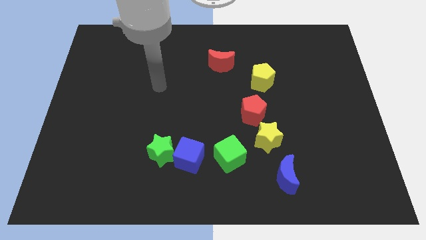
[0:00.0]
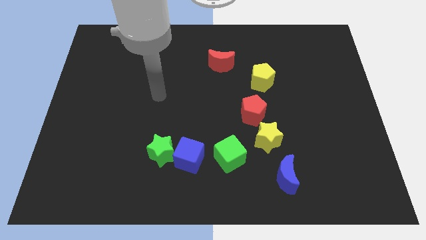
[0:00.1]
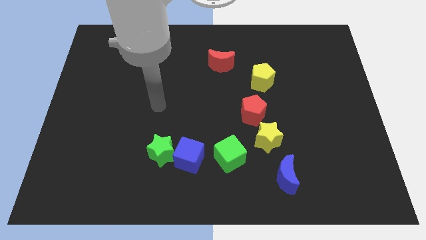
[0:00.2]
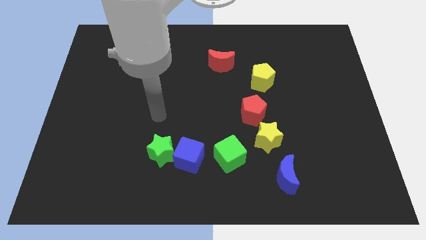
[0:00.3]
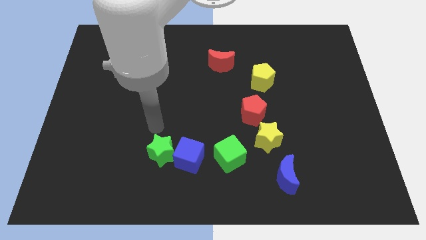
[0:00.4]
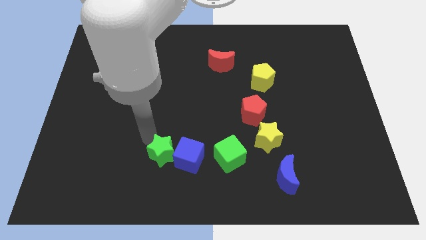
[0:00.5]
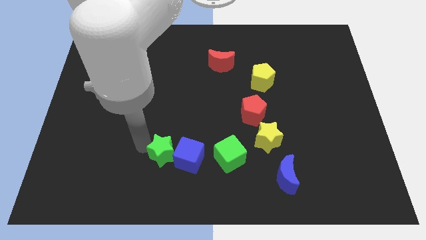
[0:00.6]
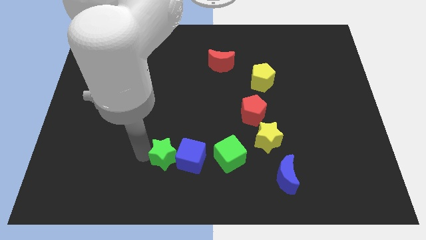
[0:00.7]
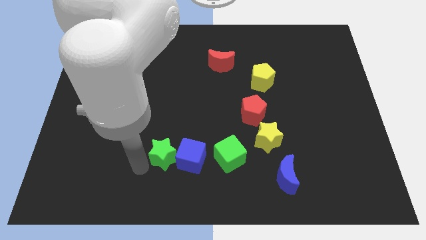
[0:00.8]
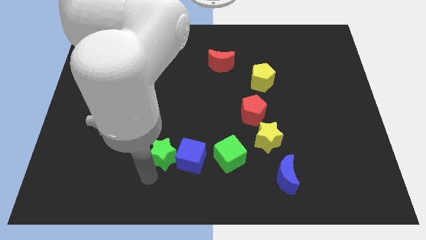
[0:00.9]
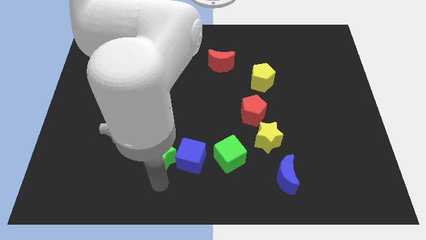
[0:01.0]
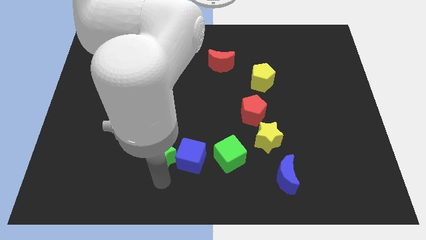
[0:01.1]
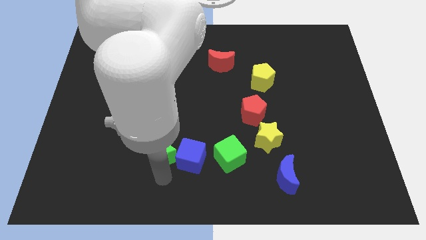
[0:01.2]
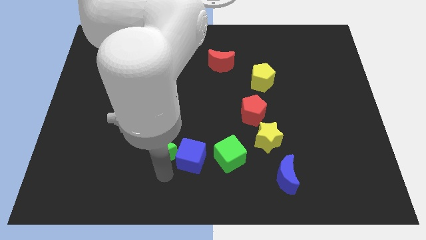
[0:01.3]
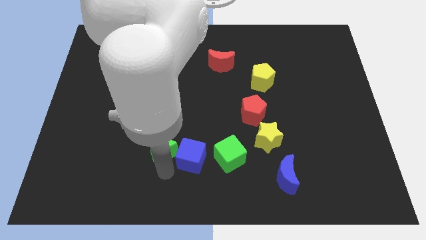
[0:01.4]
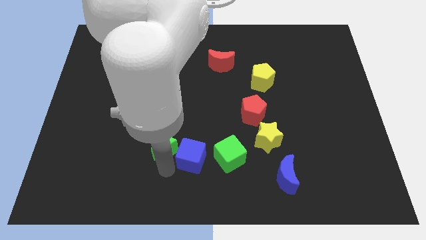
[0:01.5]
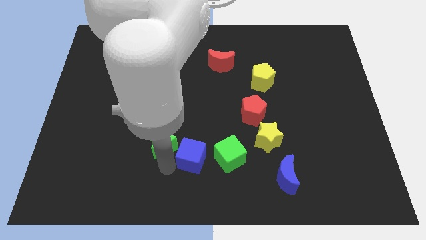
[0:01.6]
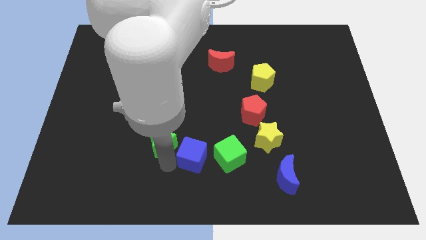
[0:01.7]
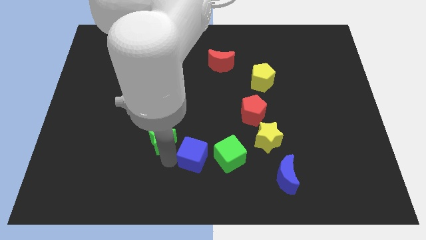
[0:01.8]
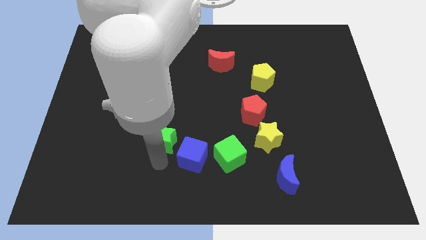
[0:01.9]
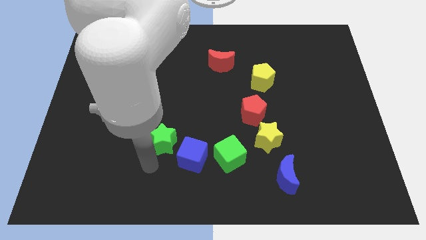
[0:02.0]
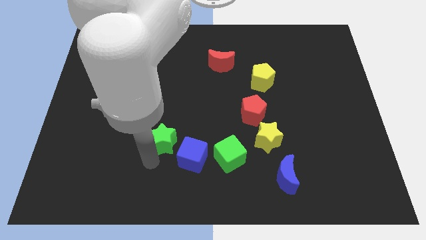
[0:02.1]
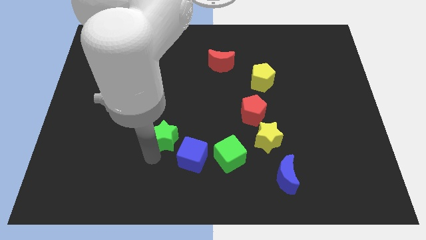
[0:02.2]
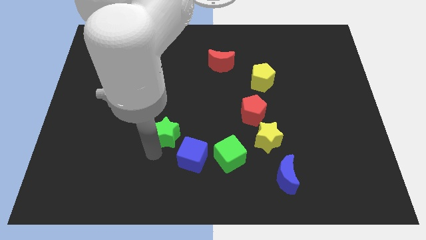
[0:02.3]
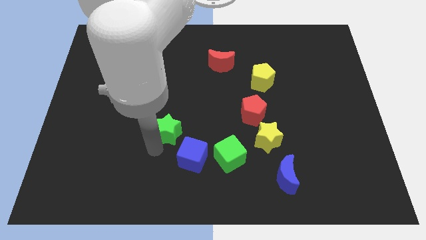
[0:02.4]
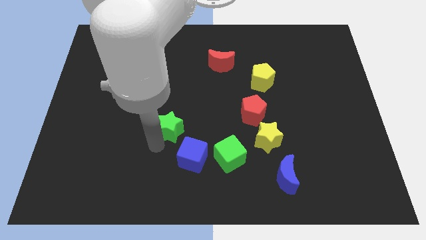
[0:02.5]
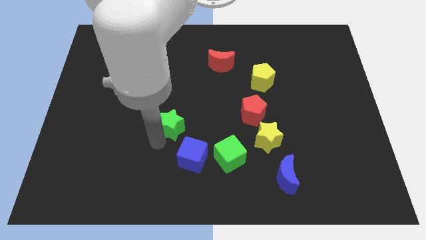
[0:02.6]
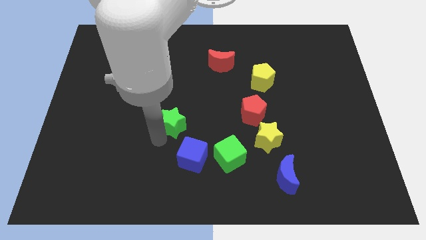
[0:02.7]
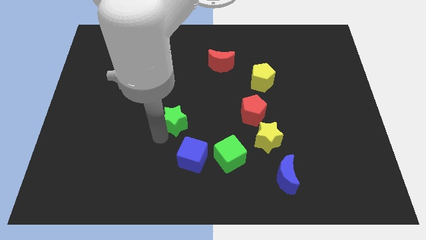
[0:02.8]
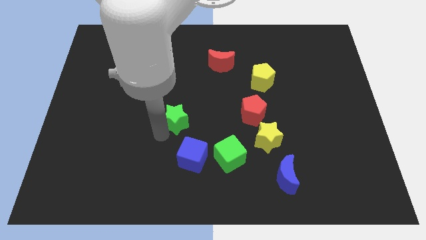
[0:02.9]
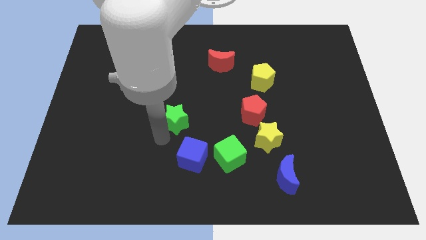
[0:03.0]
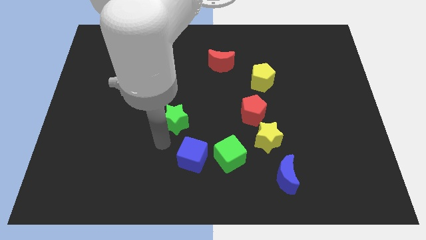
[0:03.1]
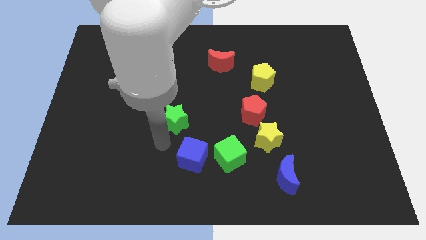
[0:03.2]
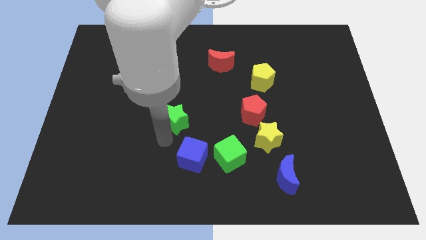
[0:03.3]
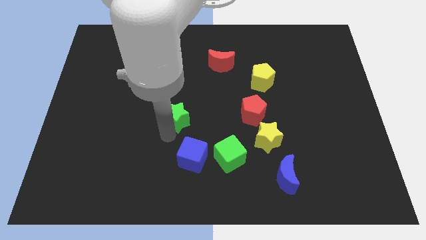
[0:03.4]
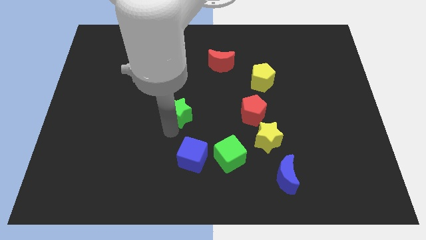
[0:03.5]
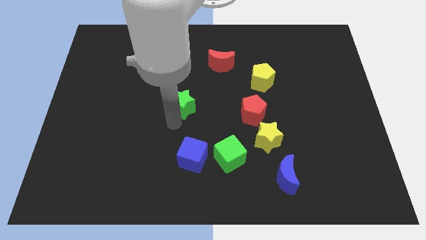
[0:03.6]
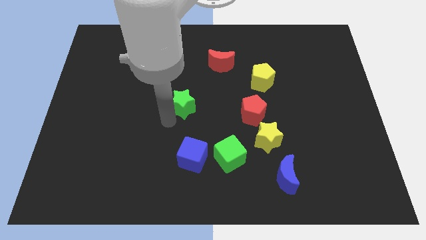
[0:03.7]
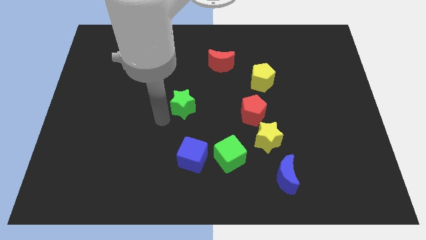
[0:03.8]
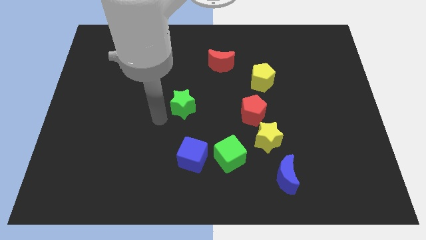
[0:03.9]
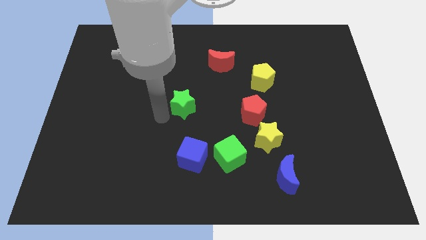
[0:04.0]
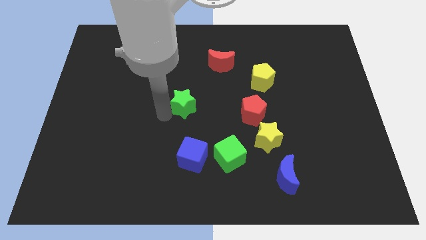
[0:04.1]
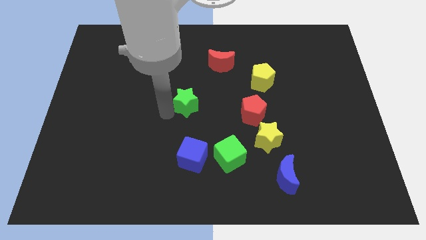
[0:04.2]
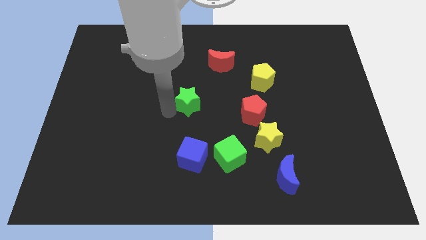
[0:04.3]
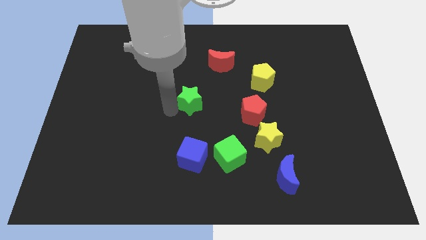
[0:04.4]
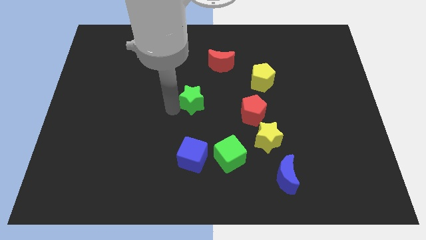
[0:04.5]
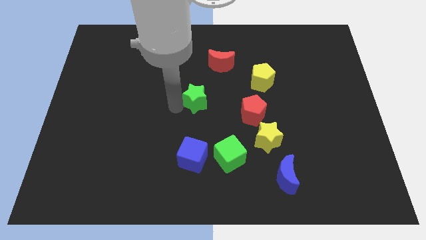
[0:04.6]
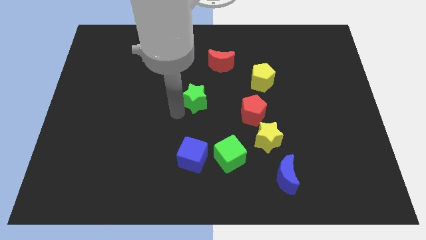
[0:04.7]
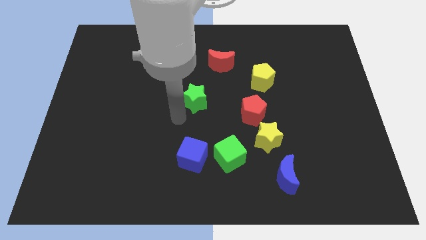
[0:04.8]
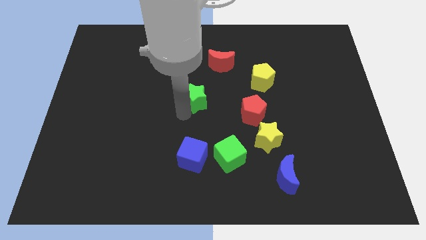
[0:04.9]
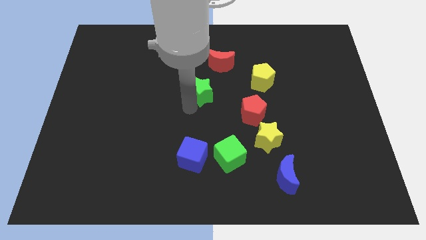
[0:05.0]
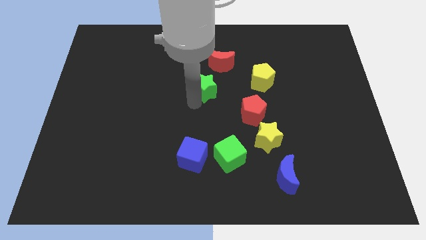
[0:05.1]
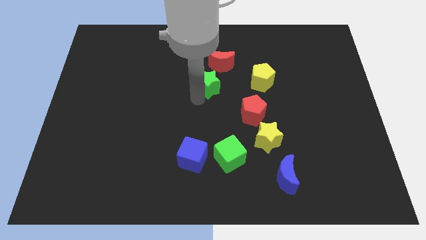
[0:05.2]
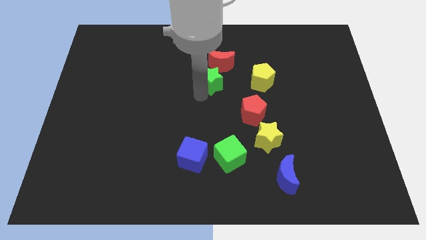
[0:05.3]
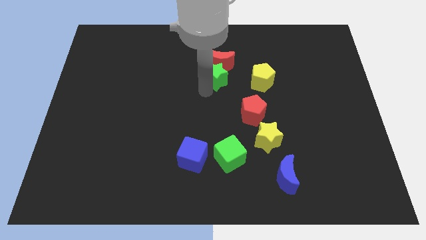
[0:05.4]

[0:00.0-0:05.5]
move the green star towards the red moon

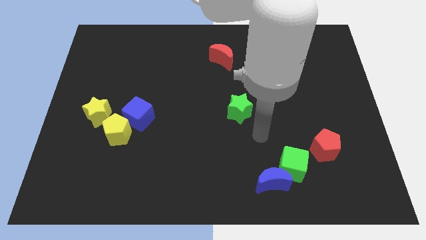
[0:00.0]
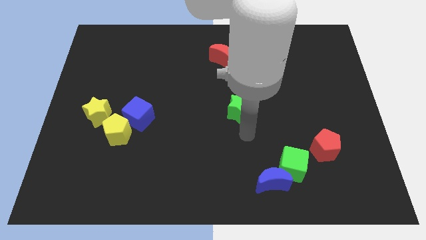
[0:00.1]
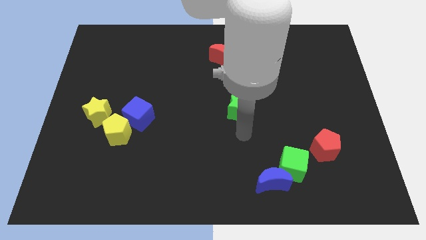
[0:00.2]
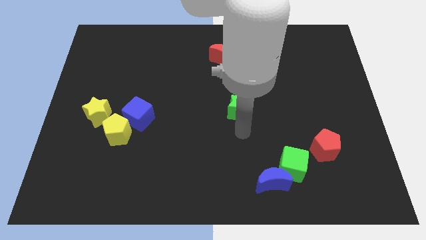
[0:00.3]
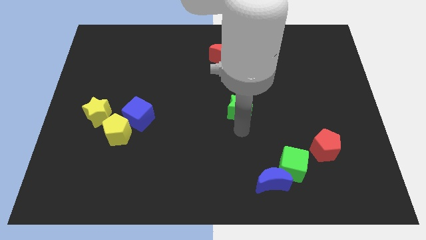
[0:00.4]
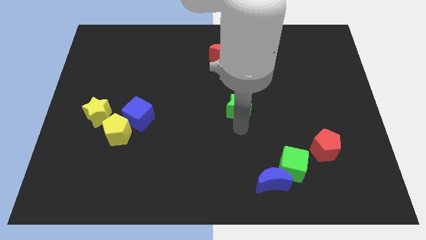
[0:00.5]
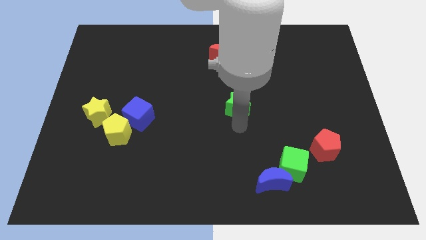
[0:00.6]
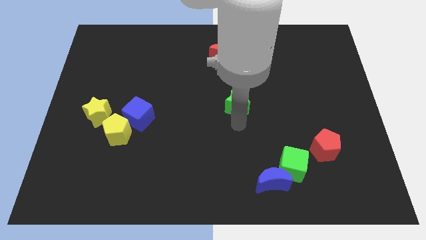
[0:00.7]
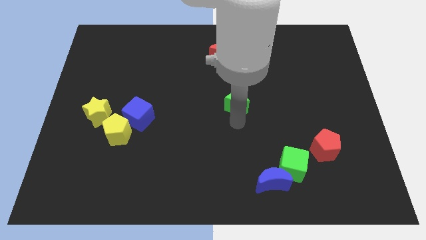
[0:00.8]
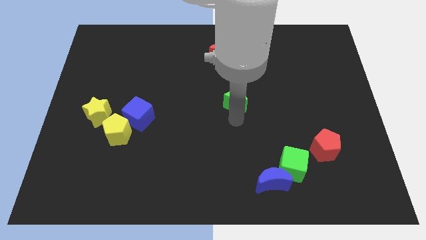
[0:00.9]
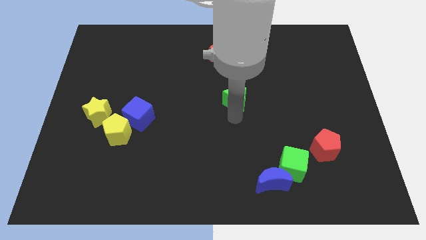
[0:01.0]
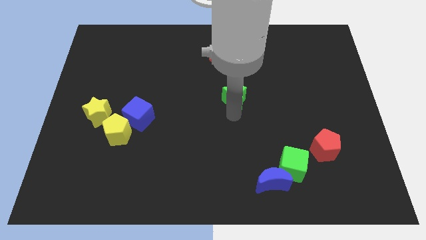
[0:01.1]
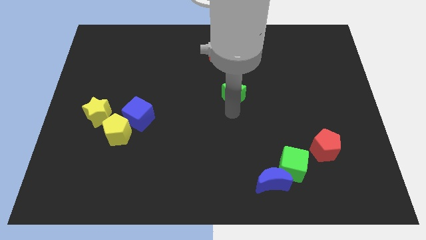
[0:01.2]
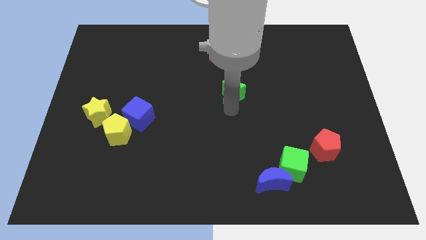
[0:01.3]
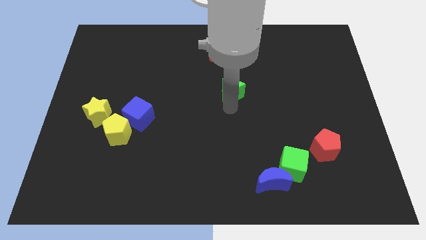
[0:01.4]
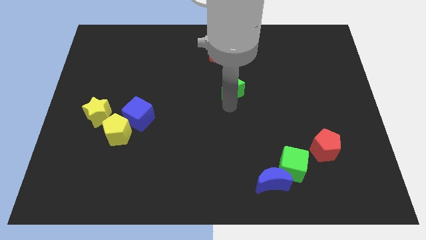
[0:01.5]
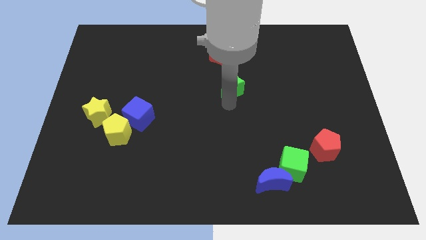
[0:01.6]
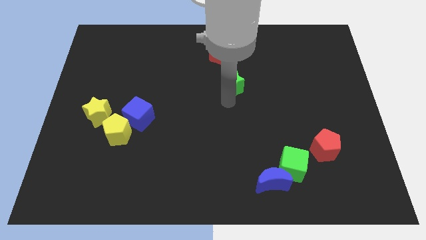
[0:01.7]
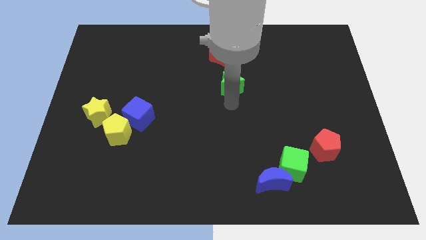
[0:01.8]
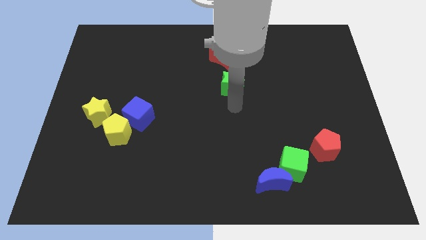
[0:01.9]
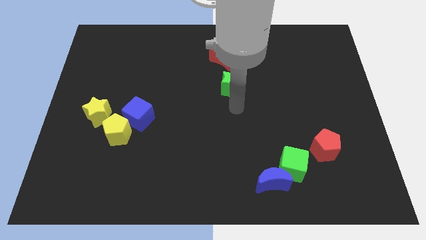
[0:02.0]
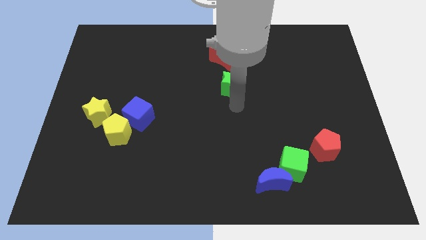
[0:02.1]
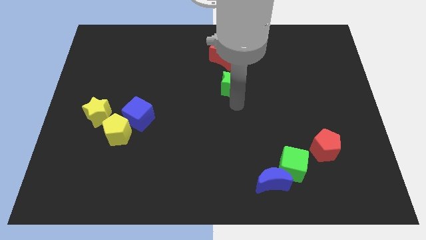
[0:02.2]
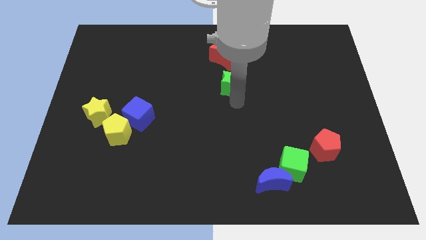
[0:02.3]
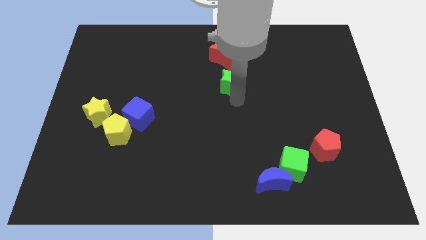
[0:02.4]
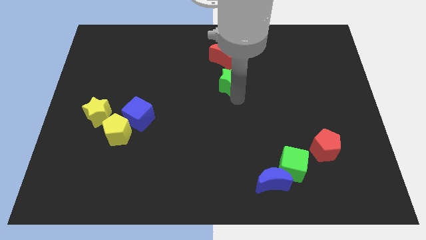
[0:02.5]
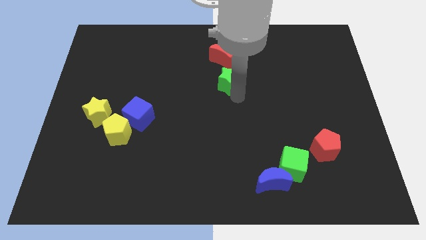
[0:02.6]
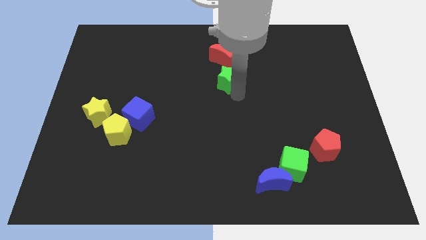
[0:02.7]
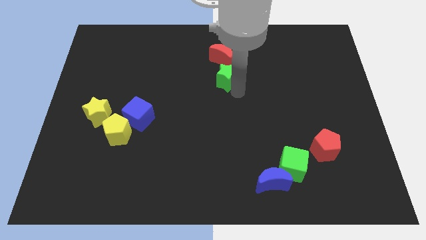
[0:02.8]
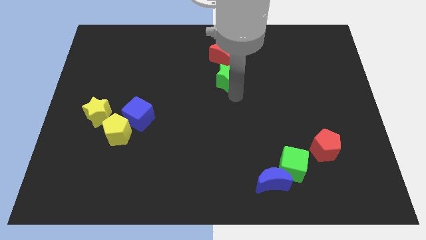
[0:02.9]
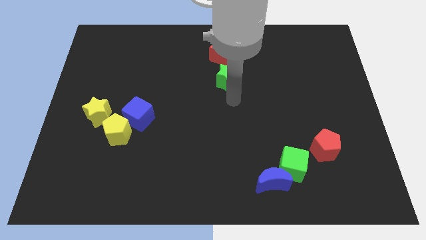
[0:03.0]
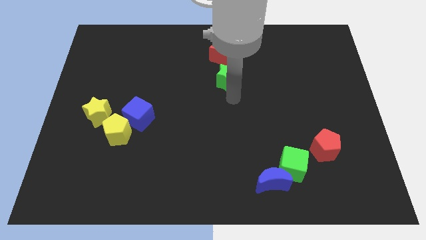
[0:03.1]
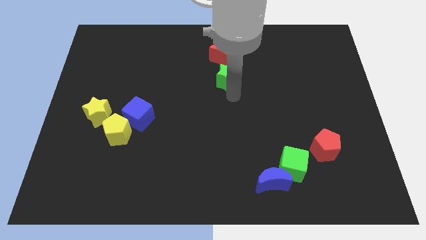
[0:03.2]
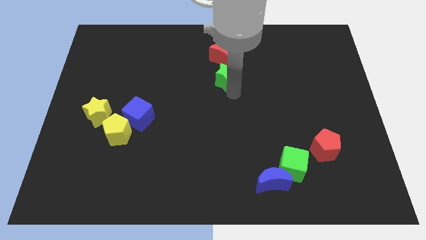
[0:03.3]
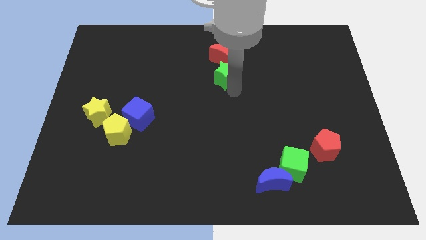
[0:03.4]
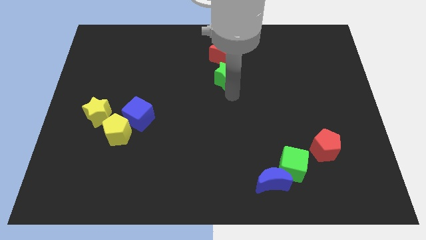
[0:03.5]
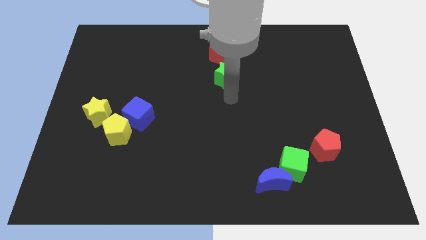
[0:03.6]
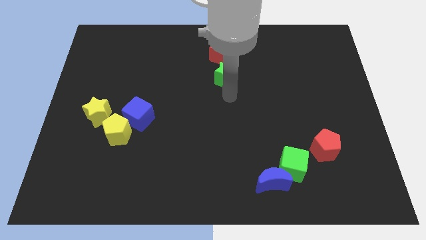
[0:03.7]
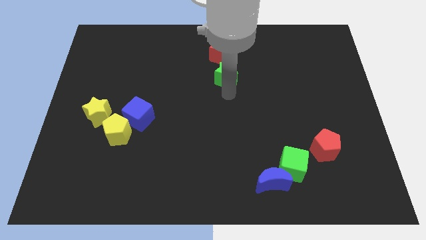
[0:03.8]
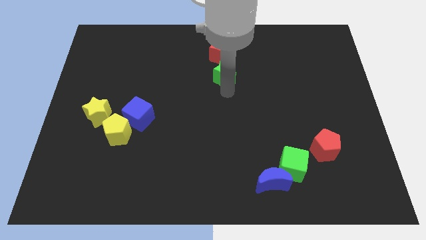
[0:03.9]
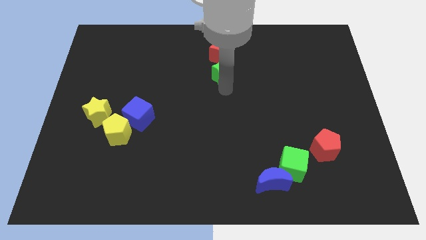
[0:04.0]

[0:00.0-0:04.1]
slide the green star close to the red moon
